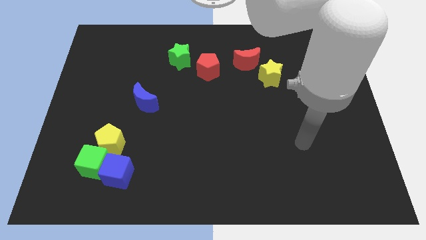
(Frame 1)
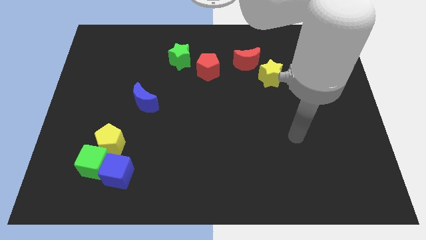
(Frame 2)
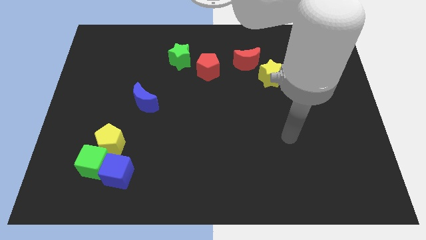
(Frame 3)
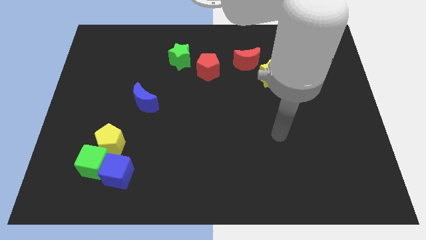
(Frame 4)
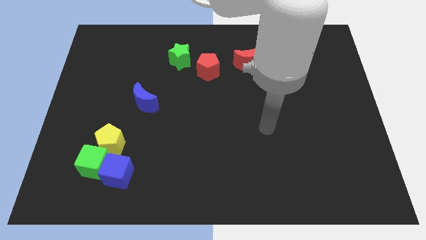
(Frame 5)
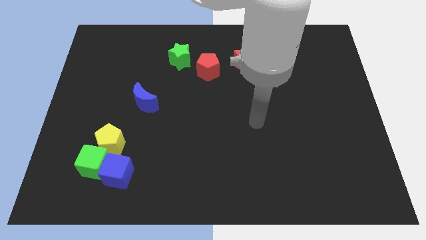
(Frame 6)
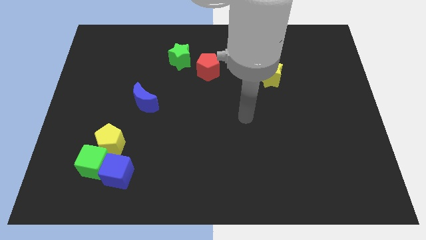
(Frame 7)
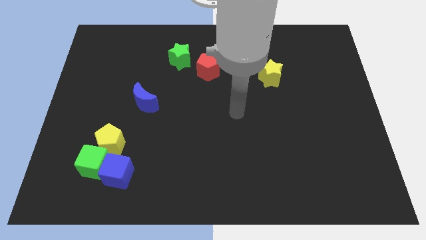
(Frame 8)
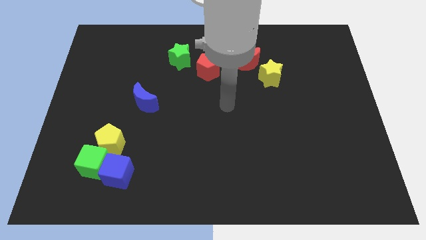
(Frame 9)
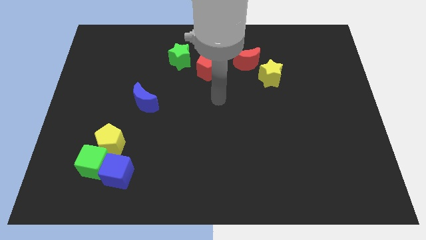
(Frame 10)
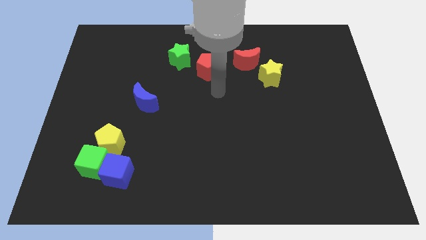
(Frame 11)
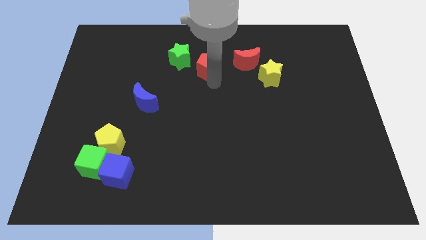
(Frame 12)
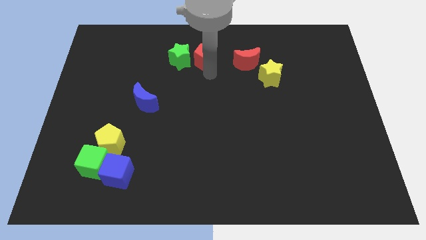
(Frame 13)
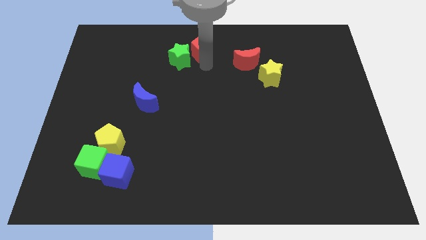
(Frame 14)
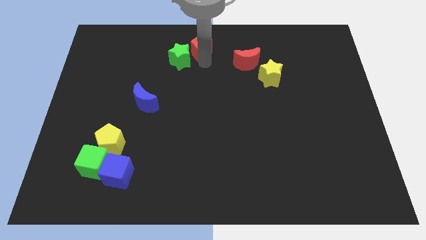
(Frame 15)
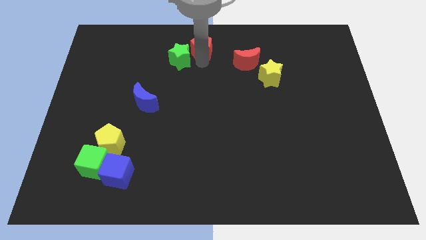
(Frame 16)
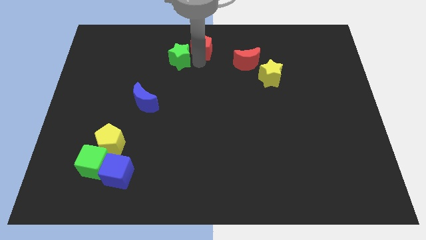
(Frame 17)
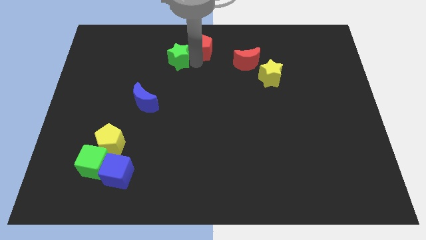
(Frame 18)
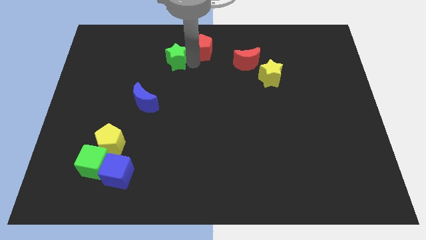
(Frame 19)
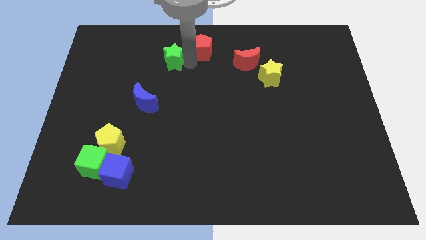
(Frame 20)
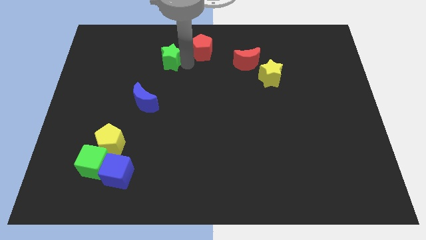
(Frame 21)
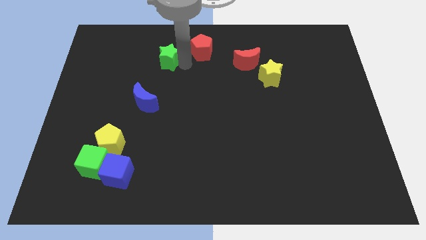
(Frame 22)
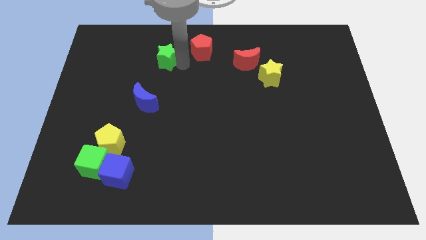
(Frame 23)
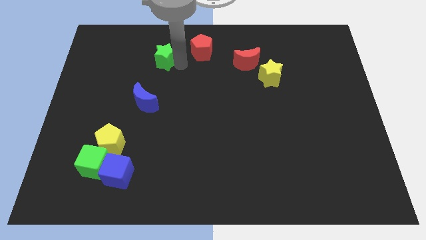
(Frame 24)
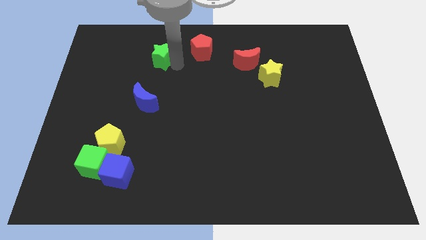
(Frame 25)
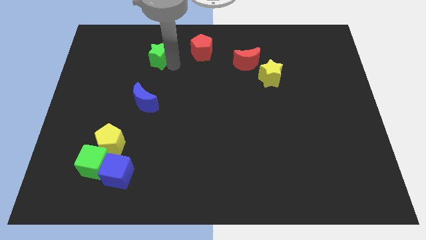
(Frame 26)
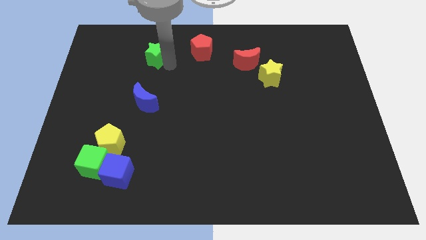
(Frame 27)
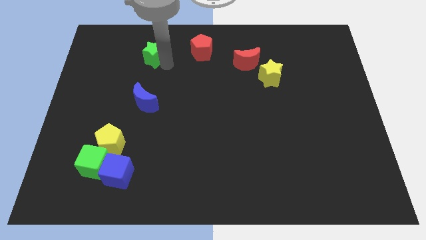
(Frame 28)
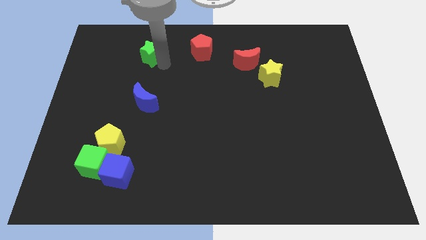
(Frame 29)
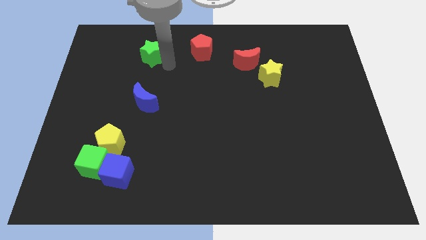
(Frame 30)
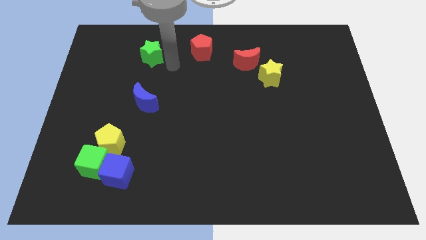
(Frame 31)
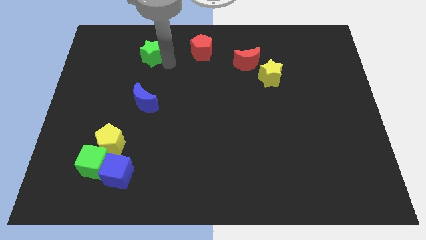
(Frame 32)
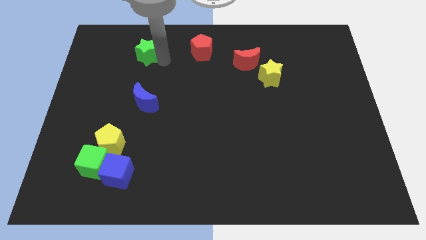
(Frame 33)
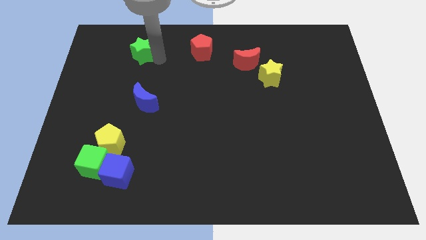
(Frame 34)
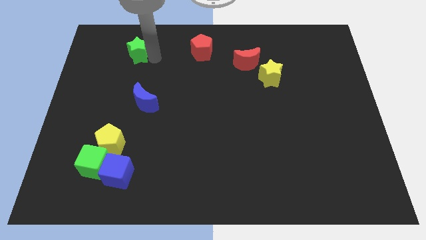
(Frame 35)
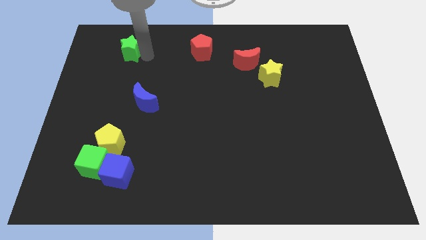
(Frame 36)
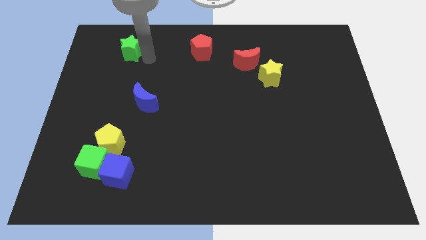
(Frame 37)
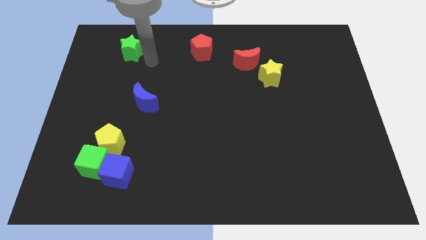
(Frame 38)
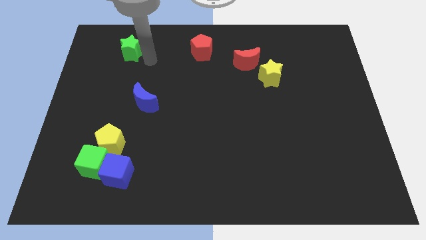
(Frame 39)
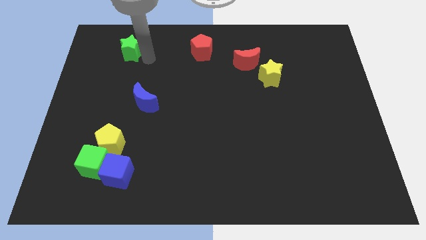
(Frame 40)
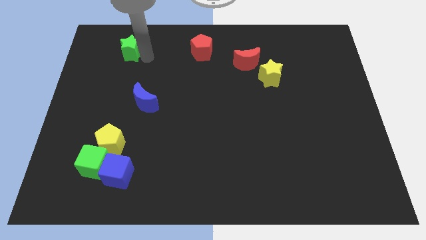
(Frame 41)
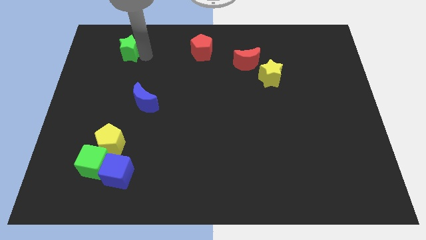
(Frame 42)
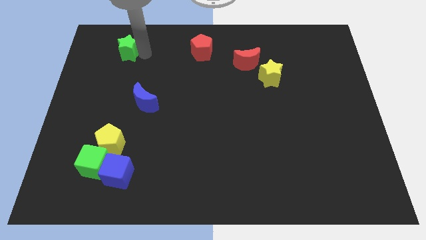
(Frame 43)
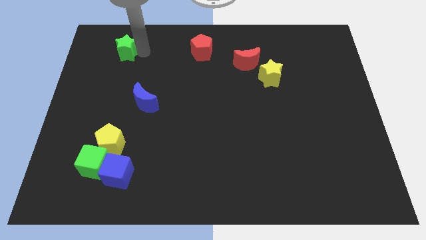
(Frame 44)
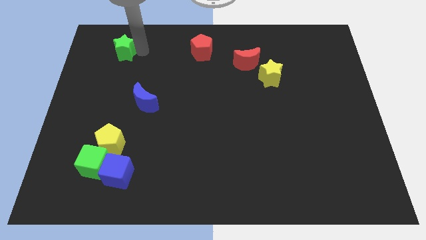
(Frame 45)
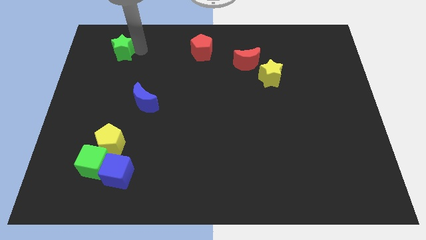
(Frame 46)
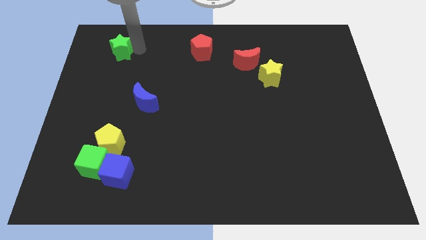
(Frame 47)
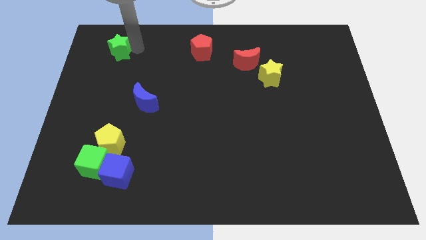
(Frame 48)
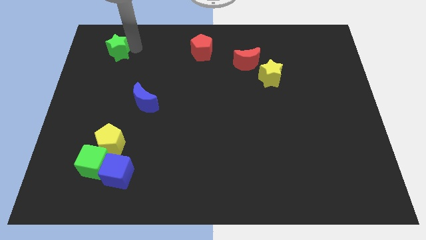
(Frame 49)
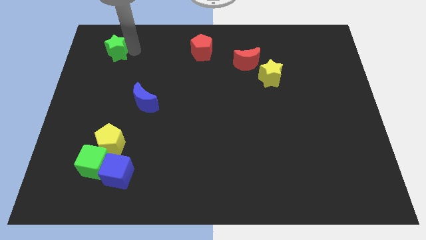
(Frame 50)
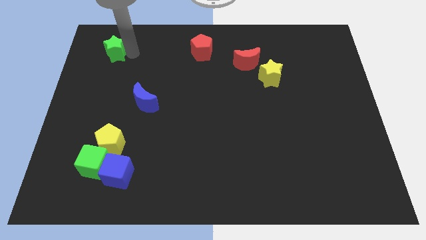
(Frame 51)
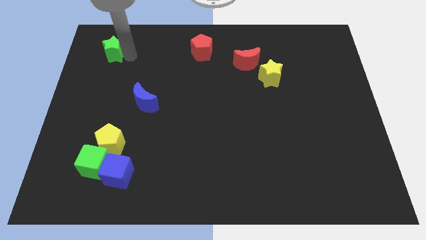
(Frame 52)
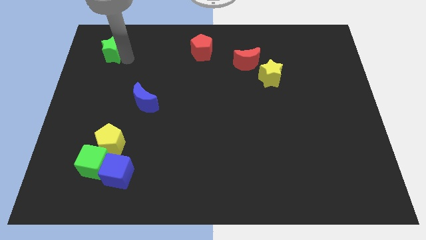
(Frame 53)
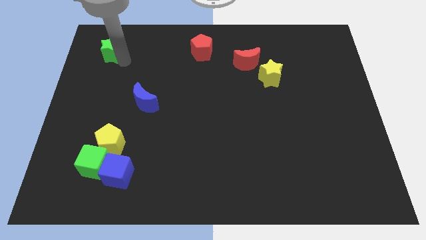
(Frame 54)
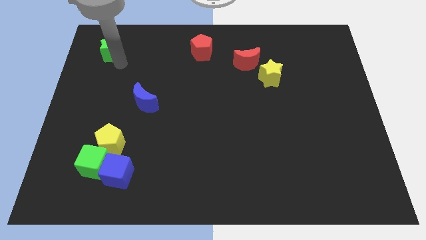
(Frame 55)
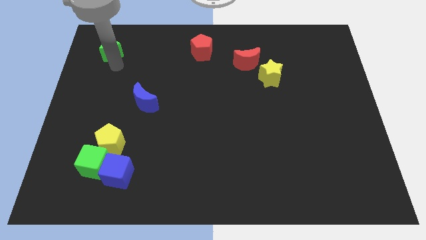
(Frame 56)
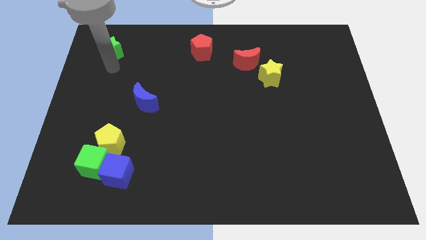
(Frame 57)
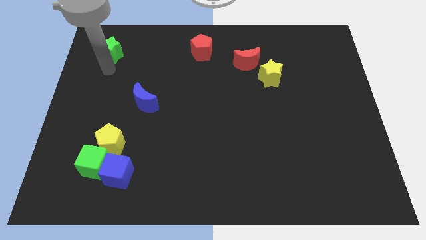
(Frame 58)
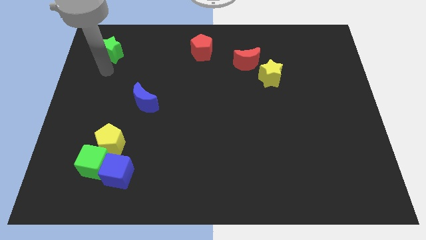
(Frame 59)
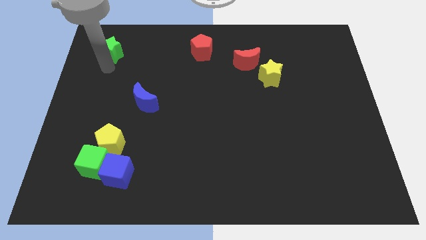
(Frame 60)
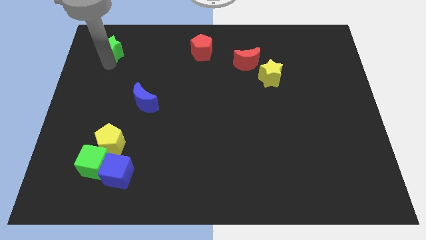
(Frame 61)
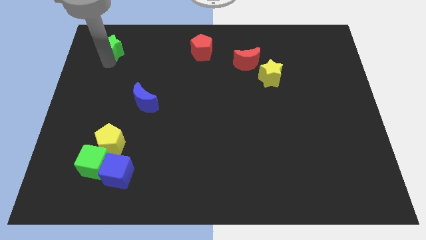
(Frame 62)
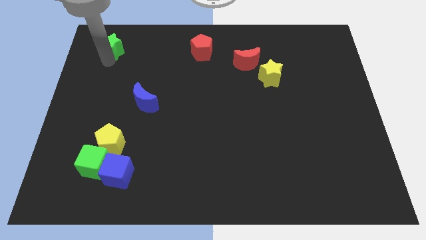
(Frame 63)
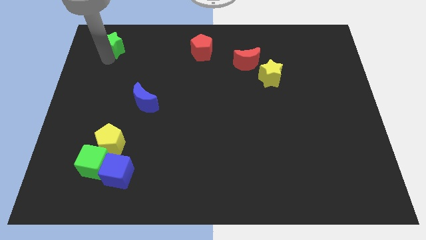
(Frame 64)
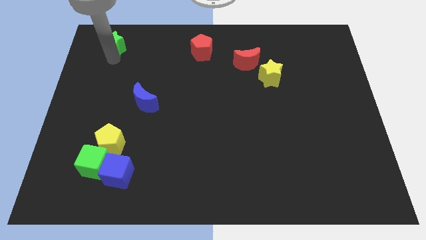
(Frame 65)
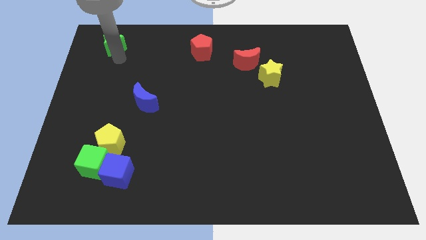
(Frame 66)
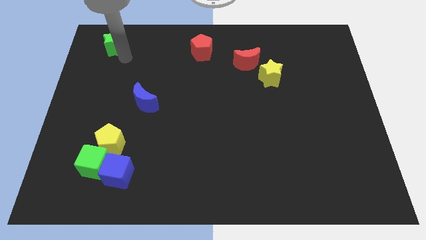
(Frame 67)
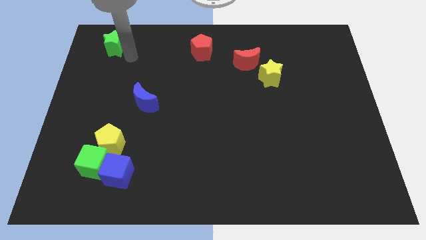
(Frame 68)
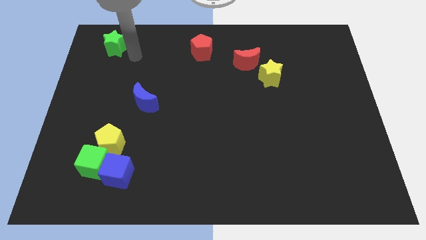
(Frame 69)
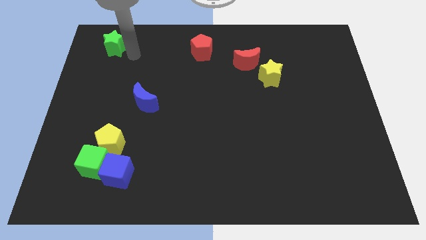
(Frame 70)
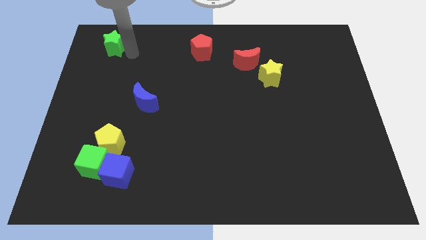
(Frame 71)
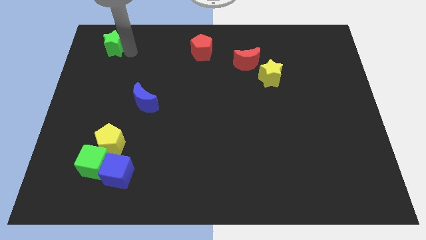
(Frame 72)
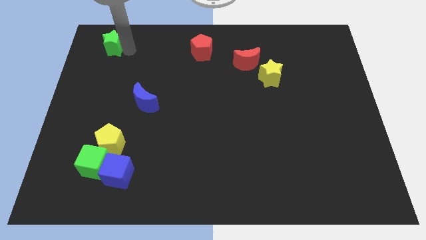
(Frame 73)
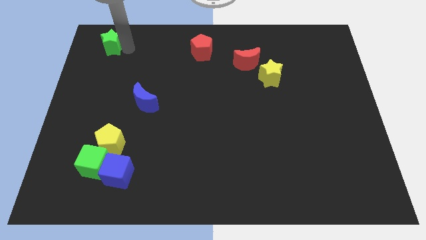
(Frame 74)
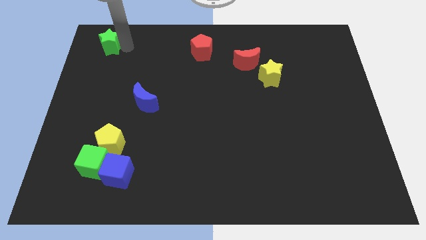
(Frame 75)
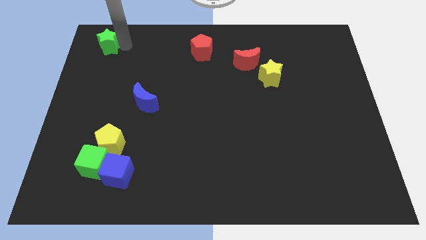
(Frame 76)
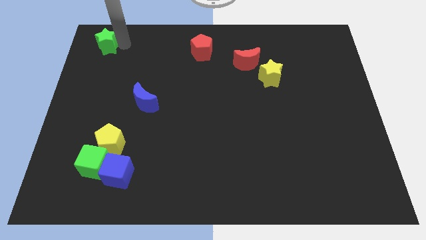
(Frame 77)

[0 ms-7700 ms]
put the green star to the upper left corner

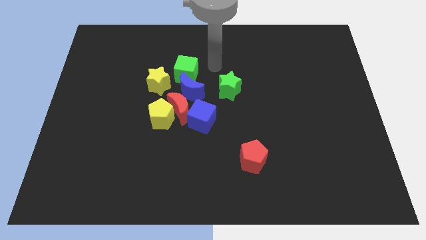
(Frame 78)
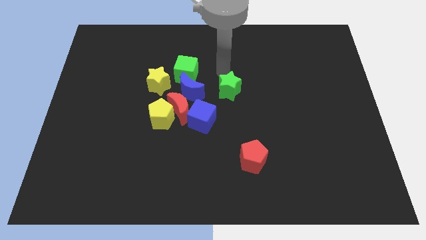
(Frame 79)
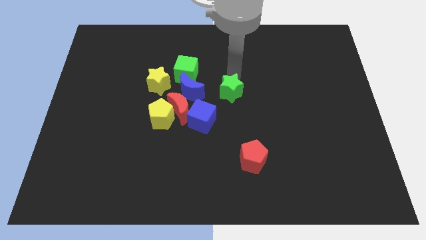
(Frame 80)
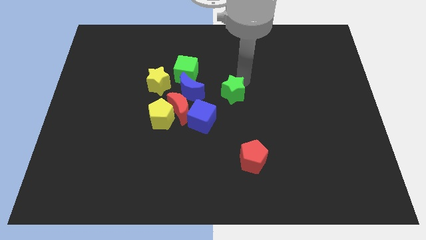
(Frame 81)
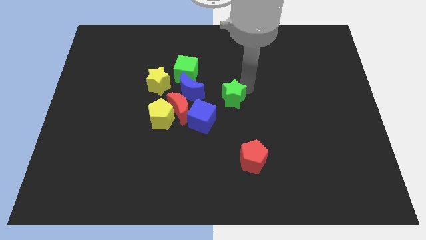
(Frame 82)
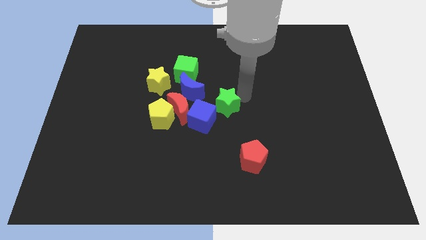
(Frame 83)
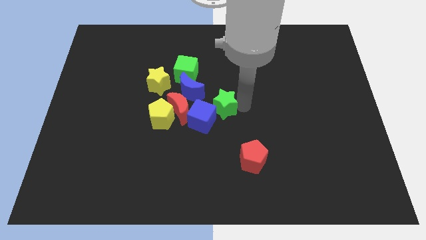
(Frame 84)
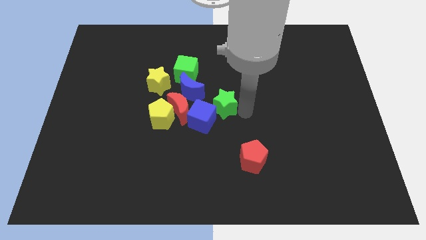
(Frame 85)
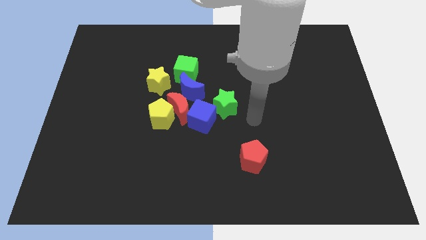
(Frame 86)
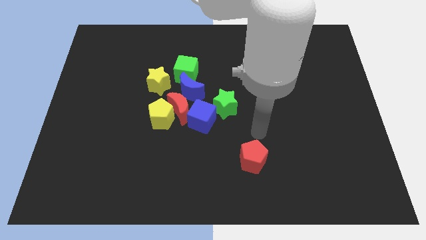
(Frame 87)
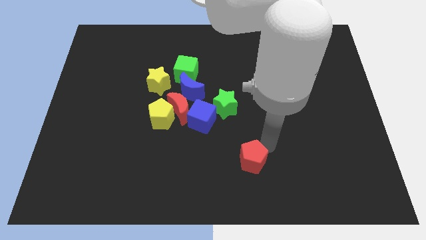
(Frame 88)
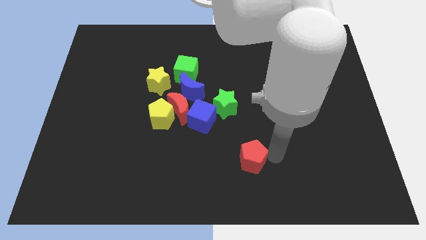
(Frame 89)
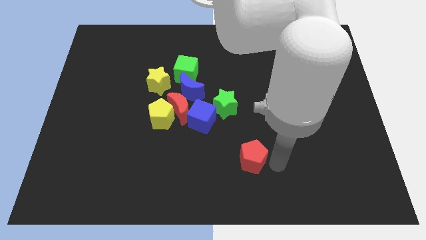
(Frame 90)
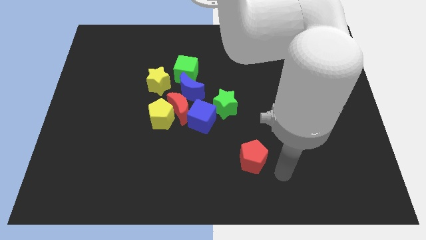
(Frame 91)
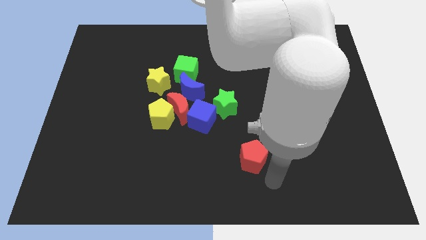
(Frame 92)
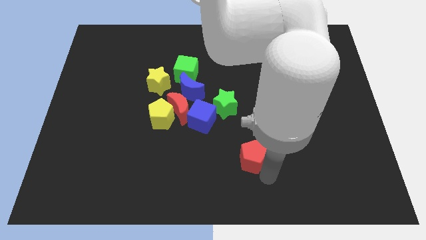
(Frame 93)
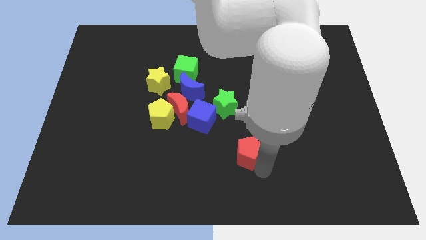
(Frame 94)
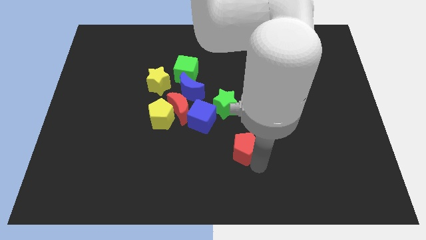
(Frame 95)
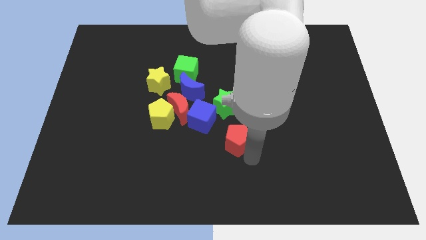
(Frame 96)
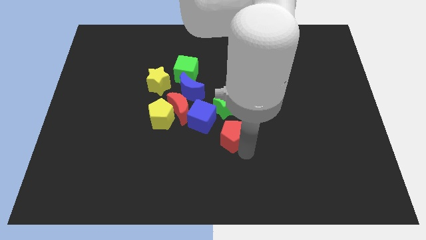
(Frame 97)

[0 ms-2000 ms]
put the red pentagon to the middle
